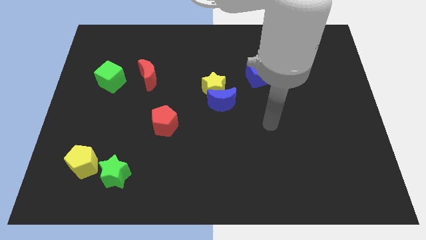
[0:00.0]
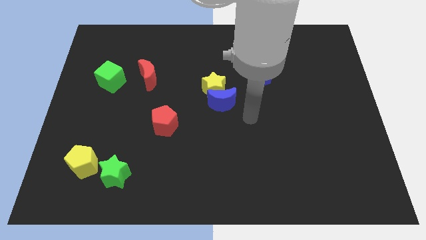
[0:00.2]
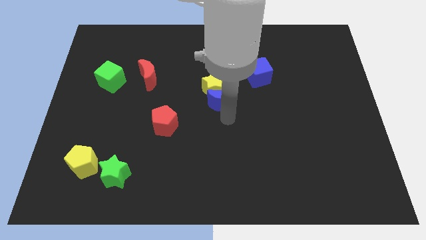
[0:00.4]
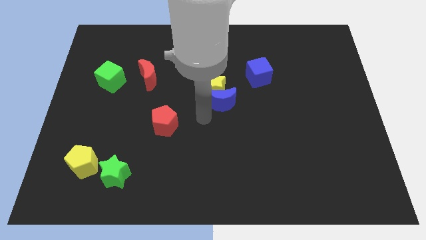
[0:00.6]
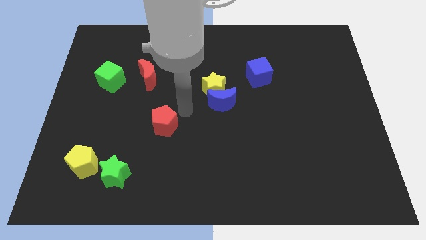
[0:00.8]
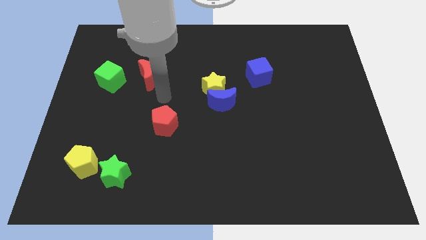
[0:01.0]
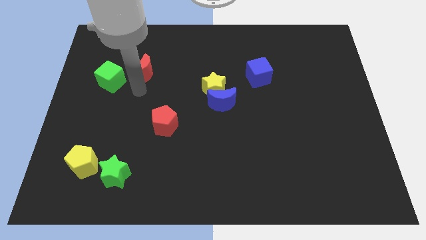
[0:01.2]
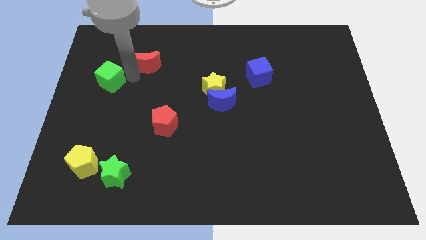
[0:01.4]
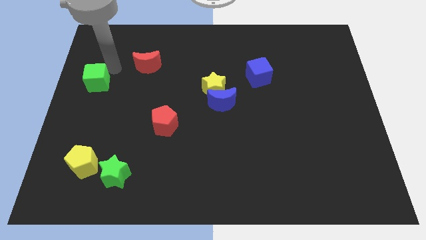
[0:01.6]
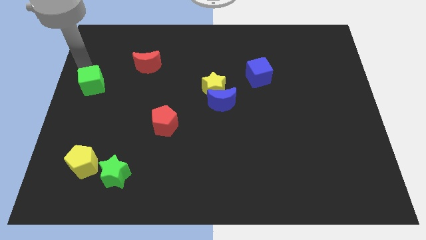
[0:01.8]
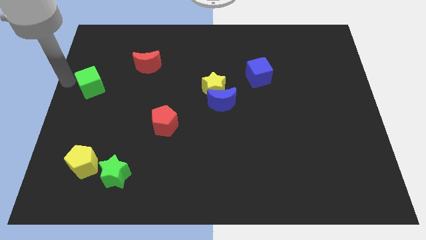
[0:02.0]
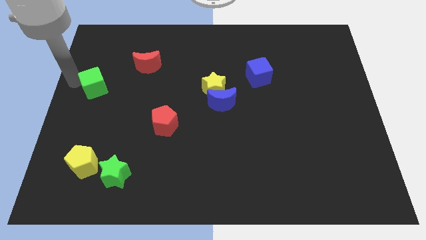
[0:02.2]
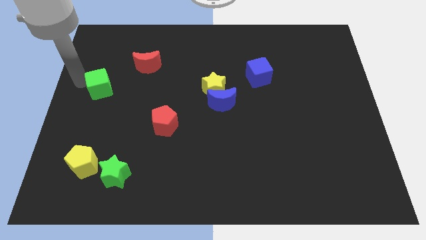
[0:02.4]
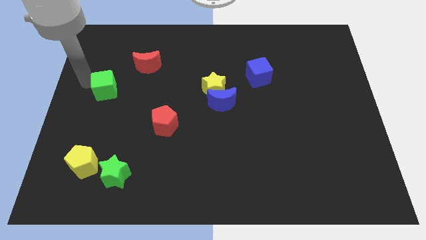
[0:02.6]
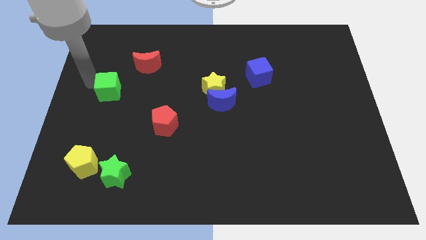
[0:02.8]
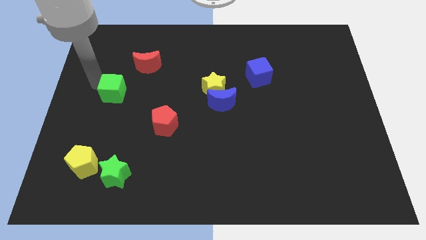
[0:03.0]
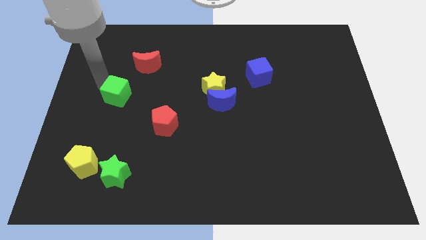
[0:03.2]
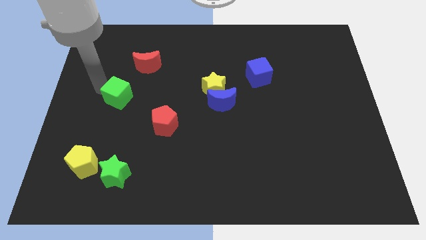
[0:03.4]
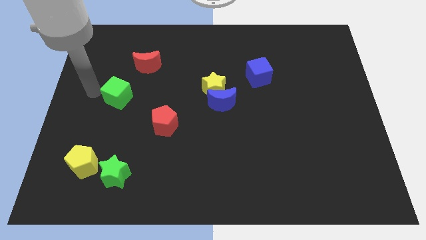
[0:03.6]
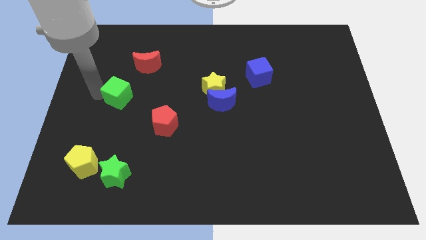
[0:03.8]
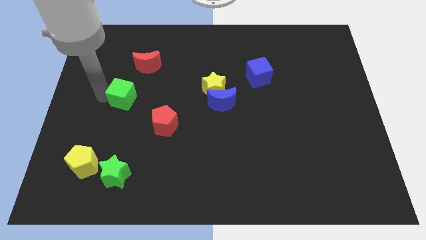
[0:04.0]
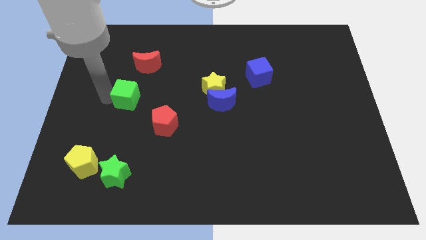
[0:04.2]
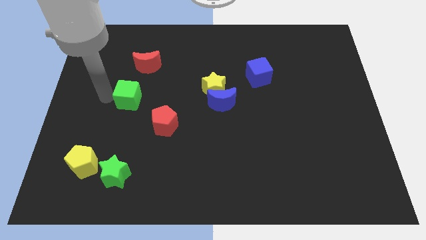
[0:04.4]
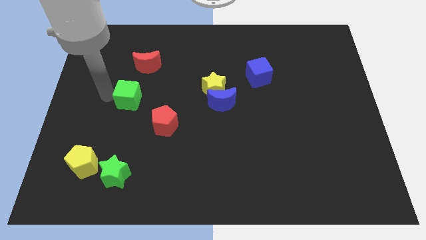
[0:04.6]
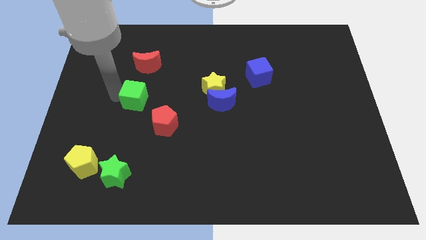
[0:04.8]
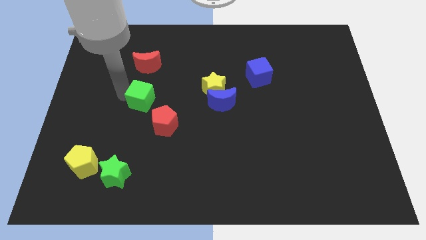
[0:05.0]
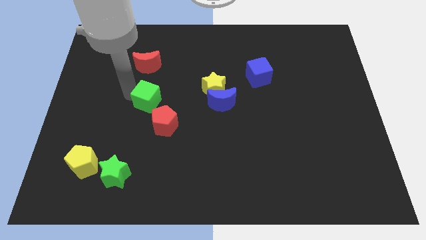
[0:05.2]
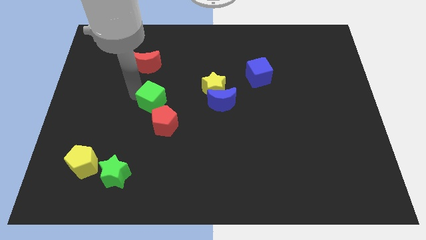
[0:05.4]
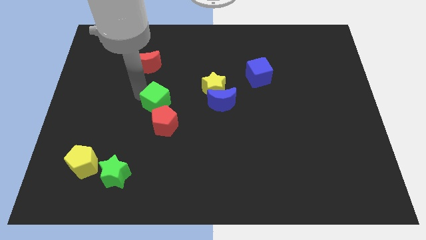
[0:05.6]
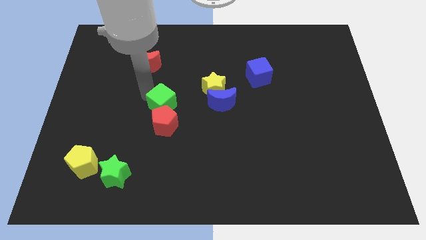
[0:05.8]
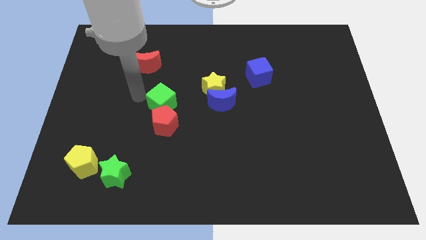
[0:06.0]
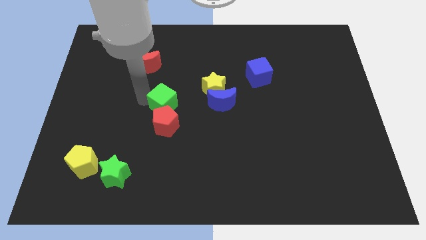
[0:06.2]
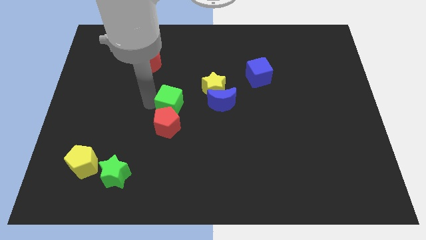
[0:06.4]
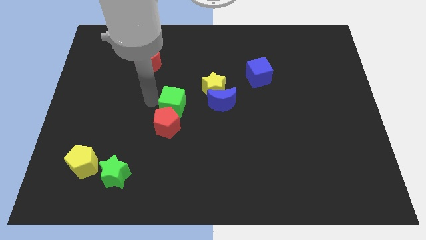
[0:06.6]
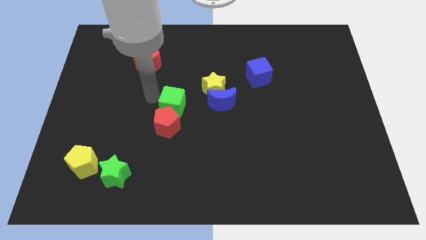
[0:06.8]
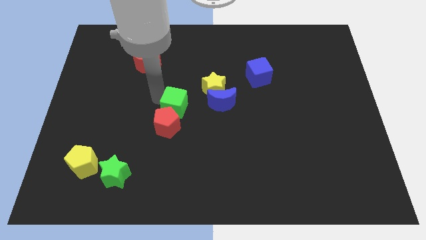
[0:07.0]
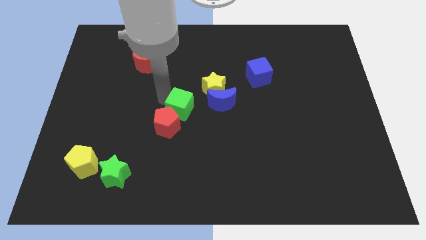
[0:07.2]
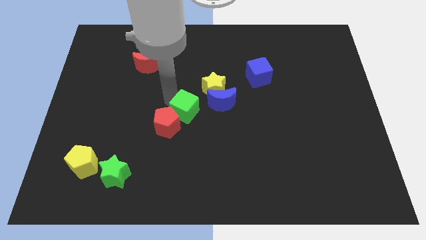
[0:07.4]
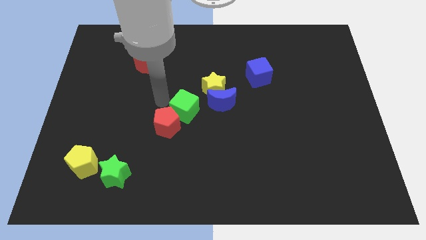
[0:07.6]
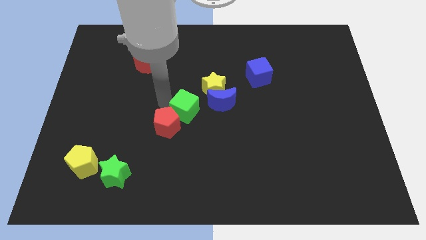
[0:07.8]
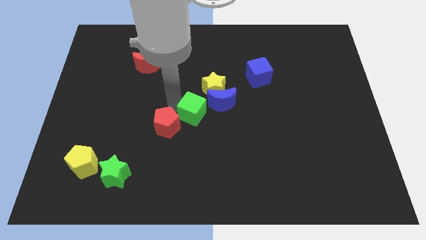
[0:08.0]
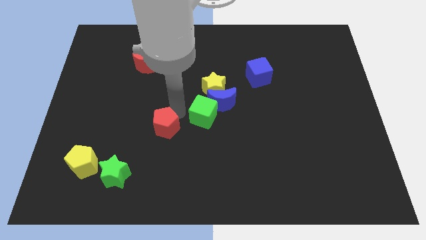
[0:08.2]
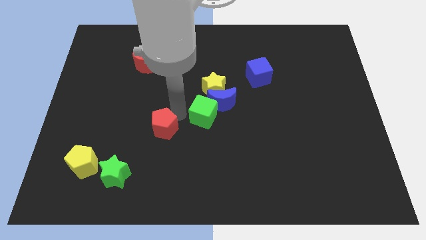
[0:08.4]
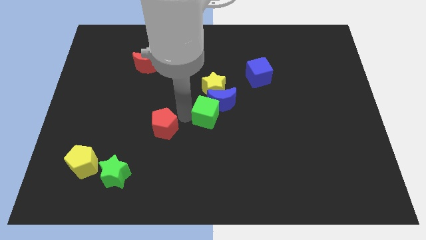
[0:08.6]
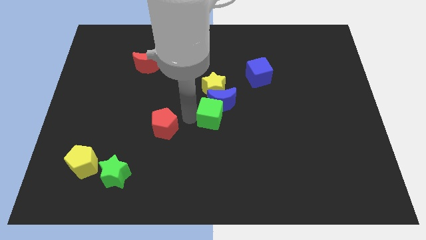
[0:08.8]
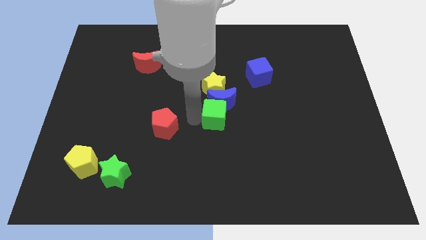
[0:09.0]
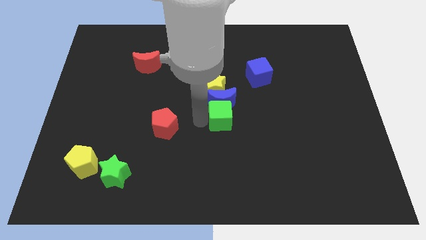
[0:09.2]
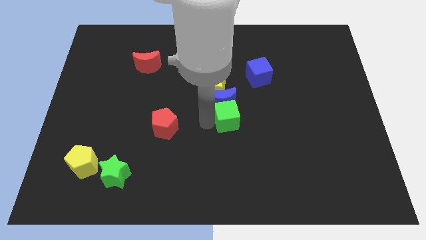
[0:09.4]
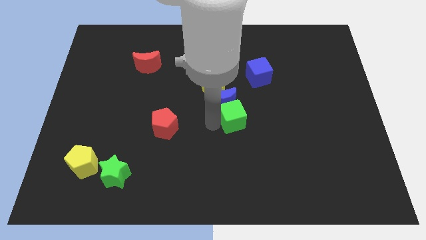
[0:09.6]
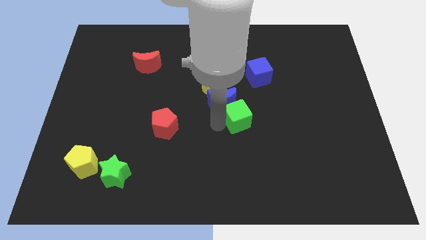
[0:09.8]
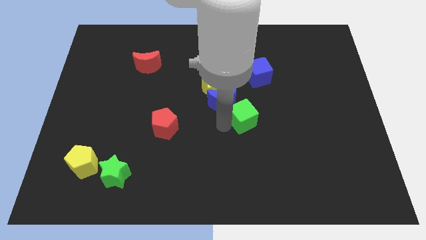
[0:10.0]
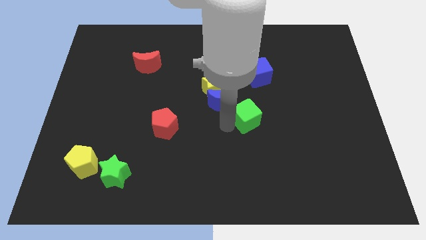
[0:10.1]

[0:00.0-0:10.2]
put the green cube below the blue cube

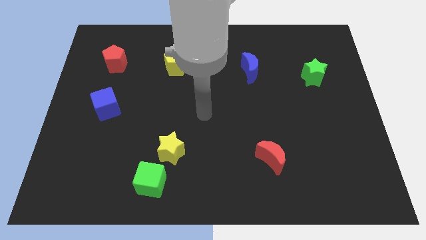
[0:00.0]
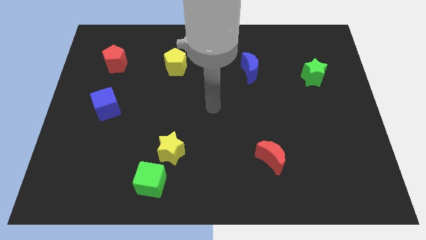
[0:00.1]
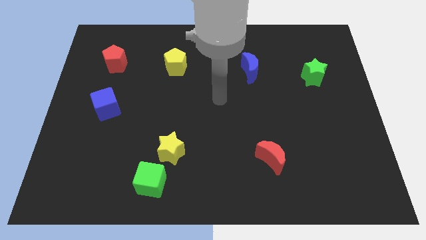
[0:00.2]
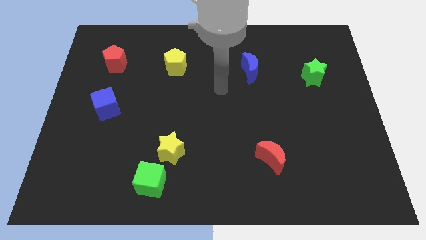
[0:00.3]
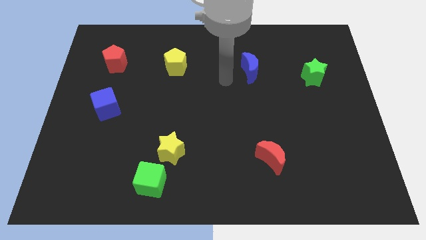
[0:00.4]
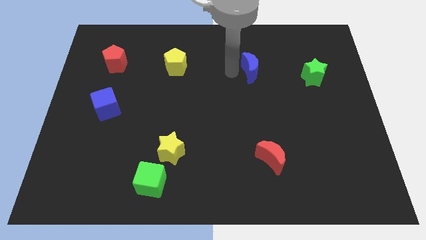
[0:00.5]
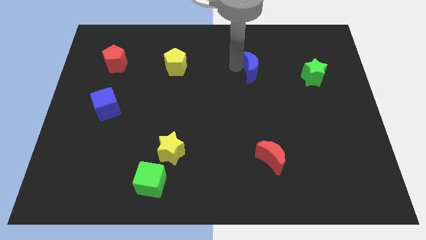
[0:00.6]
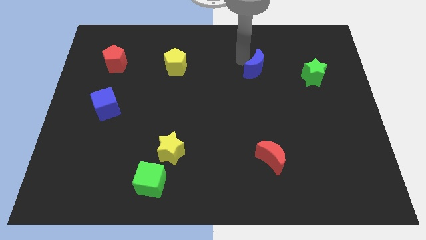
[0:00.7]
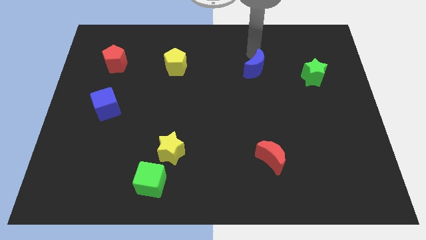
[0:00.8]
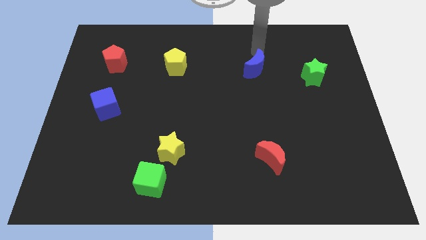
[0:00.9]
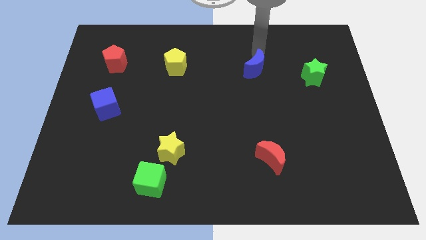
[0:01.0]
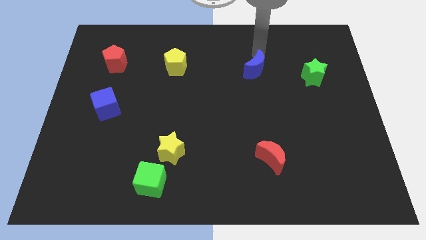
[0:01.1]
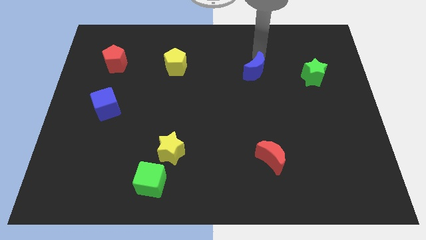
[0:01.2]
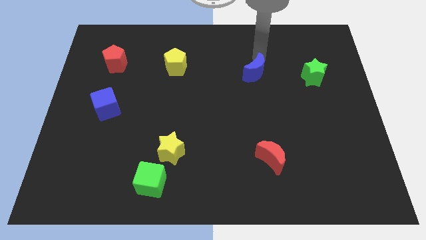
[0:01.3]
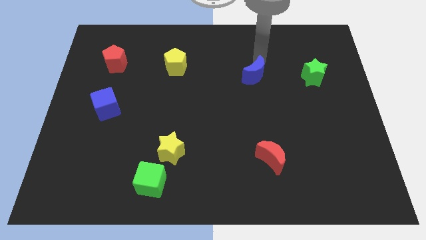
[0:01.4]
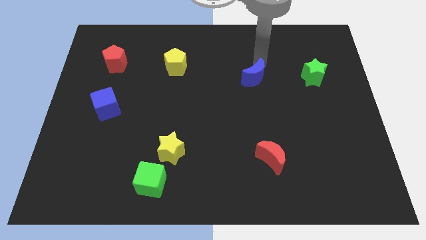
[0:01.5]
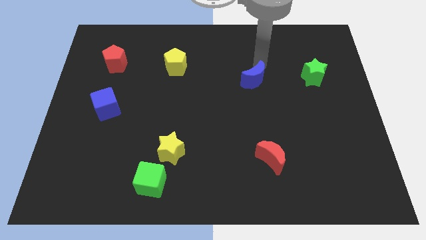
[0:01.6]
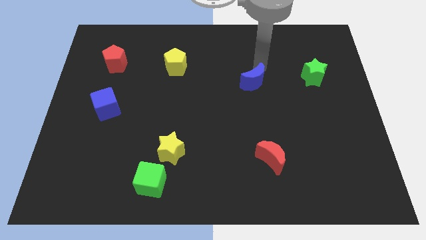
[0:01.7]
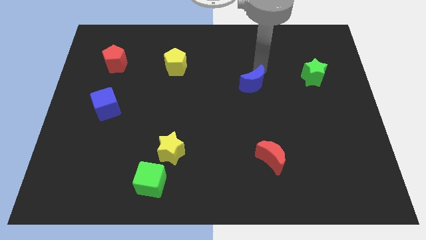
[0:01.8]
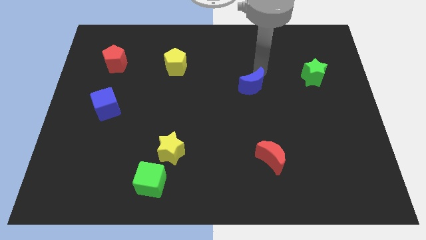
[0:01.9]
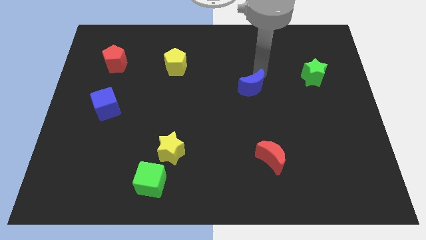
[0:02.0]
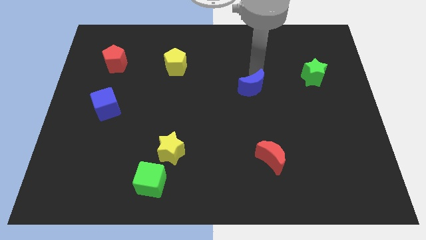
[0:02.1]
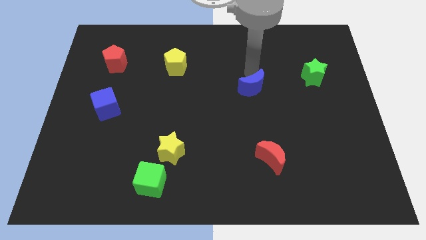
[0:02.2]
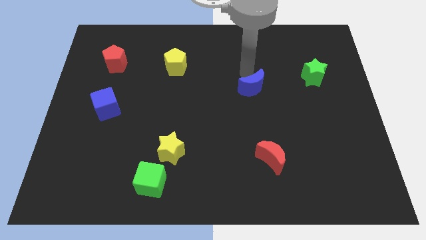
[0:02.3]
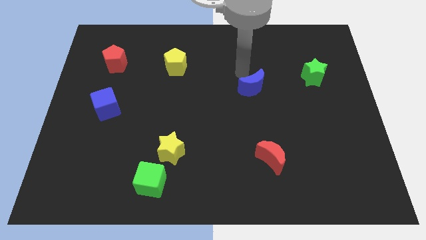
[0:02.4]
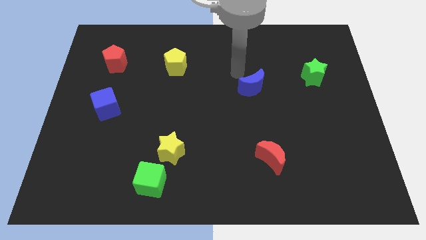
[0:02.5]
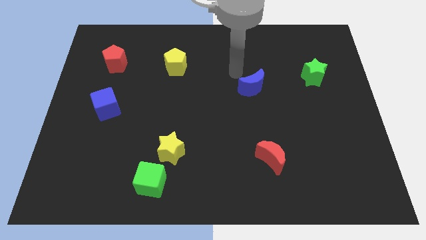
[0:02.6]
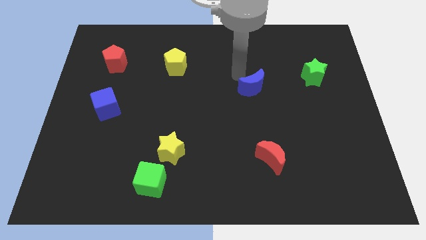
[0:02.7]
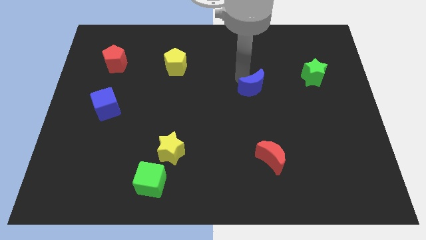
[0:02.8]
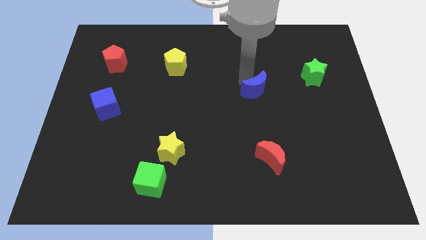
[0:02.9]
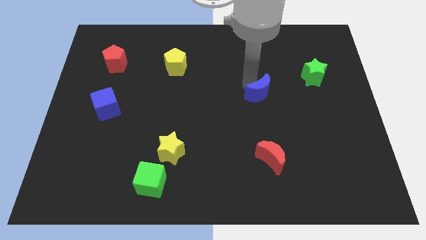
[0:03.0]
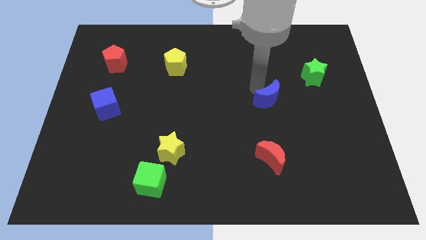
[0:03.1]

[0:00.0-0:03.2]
put the blue moon to the top side of the red moon
